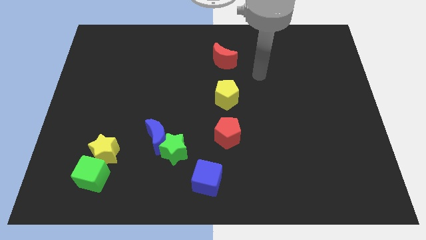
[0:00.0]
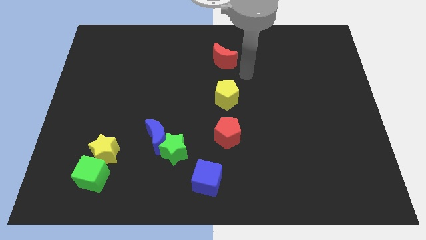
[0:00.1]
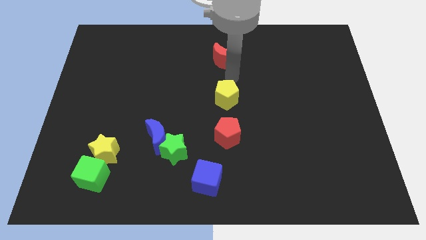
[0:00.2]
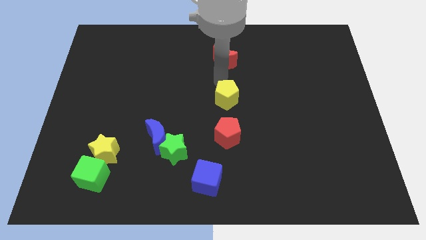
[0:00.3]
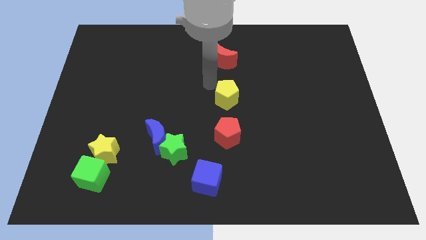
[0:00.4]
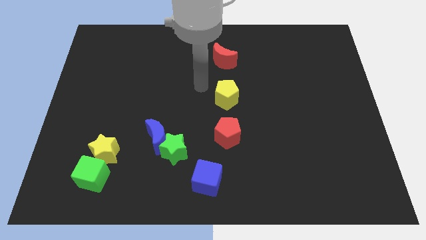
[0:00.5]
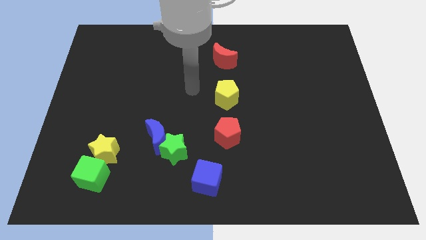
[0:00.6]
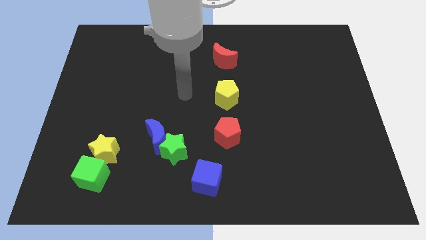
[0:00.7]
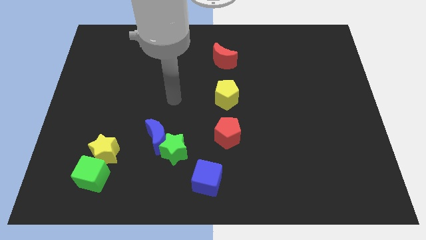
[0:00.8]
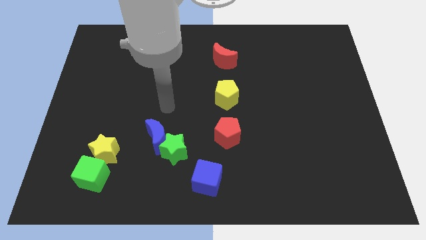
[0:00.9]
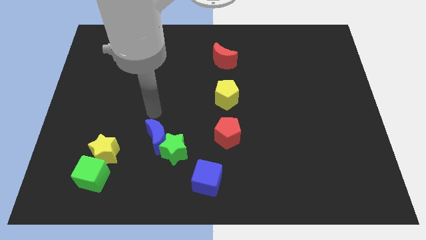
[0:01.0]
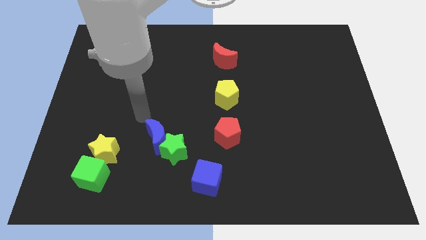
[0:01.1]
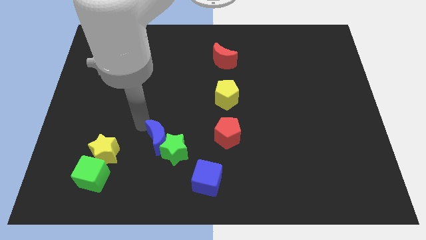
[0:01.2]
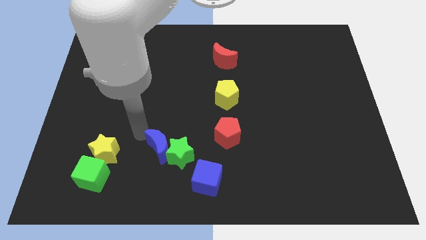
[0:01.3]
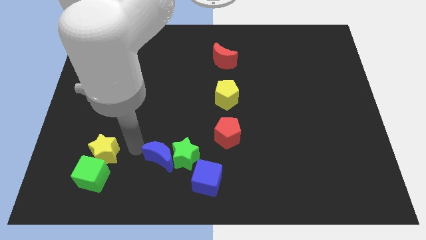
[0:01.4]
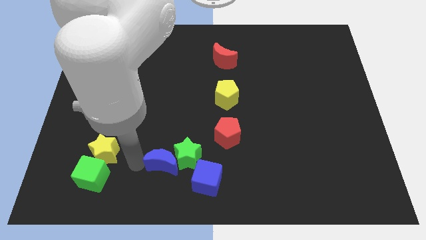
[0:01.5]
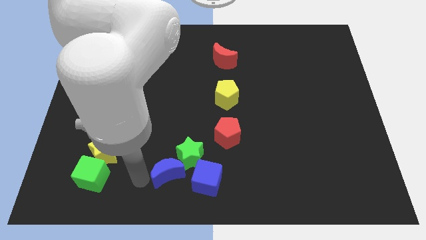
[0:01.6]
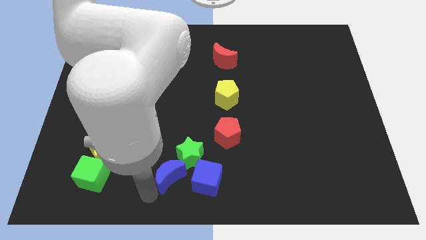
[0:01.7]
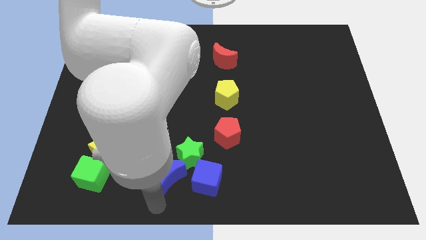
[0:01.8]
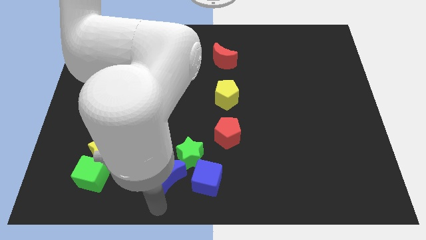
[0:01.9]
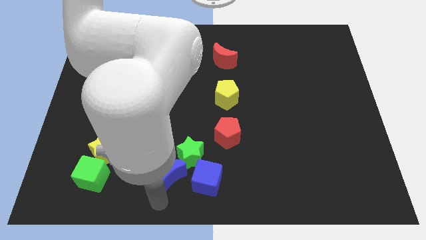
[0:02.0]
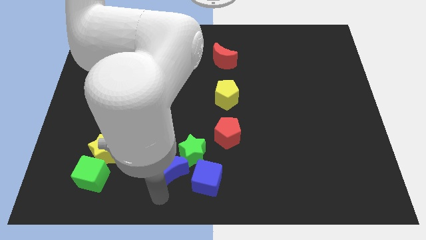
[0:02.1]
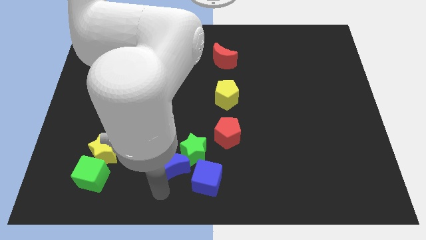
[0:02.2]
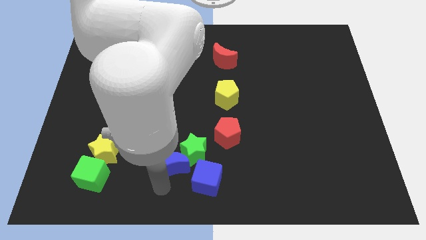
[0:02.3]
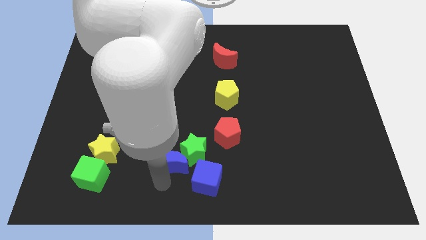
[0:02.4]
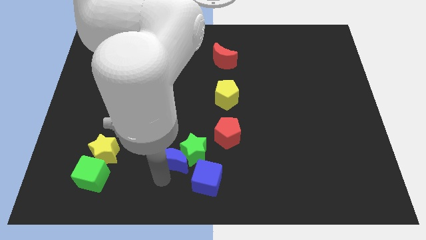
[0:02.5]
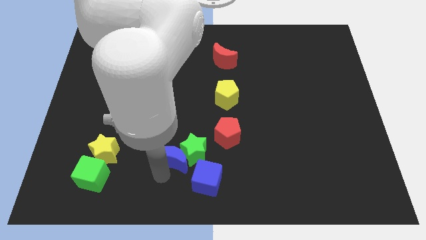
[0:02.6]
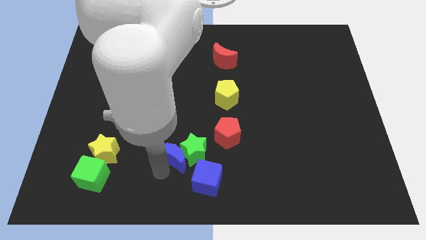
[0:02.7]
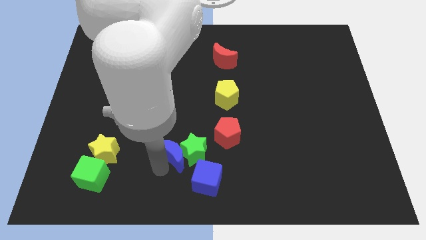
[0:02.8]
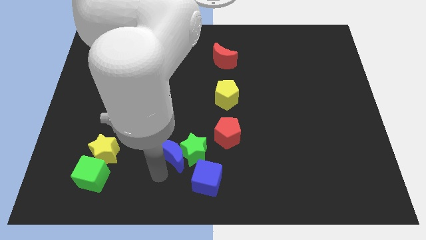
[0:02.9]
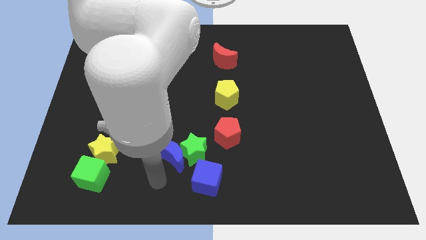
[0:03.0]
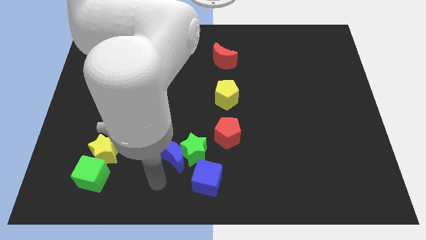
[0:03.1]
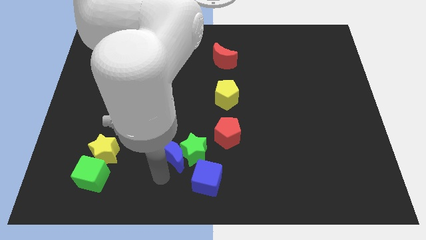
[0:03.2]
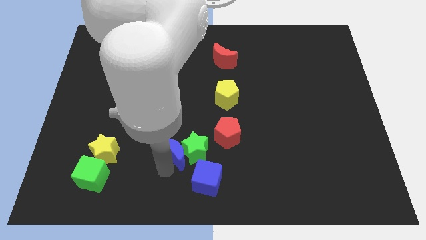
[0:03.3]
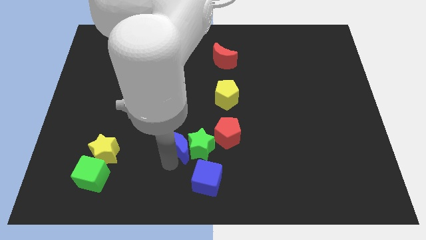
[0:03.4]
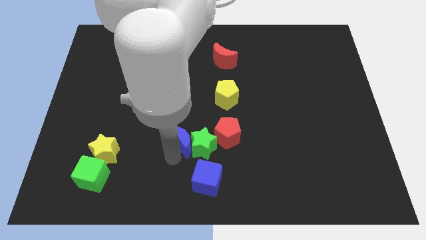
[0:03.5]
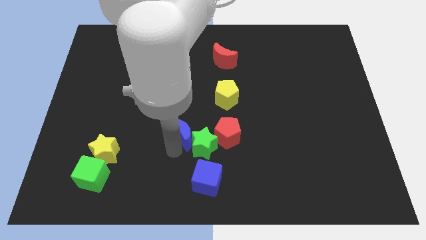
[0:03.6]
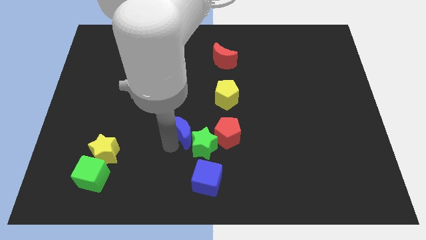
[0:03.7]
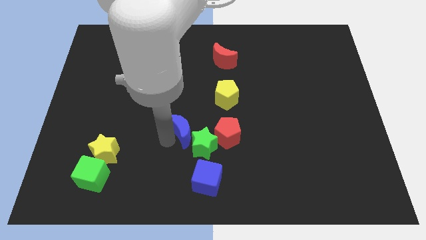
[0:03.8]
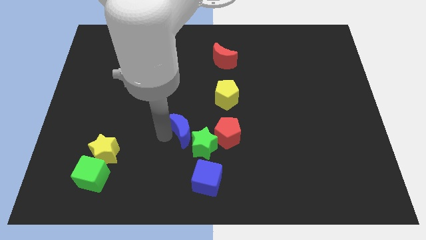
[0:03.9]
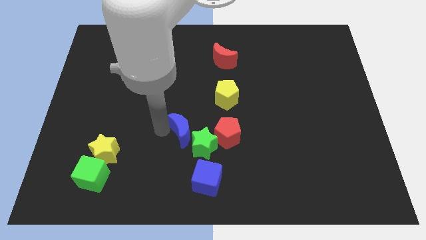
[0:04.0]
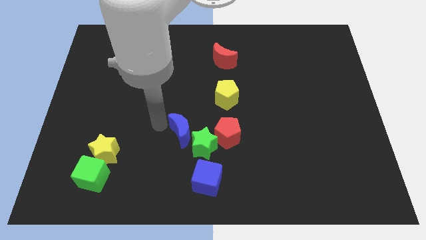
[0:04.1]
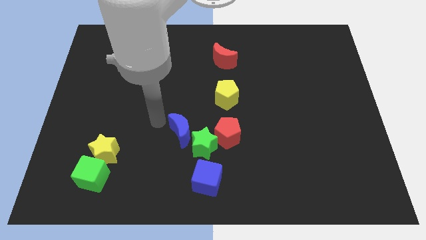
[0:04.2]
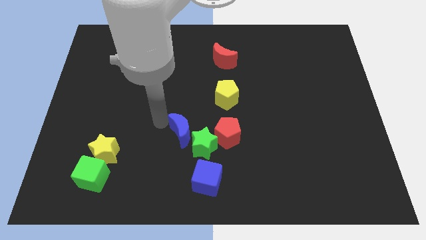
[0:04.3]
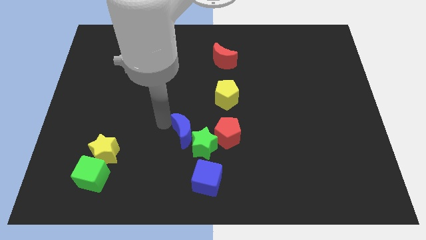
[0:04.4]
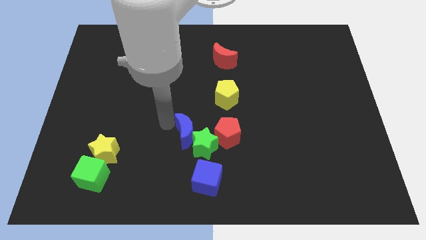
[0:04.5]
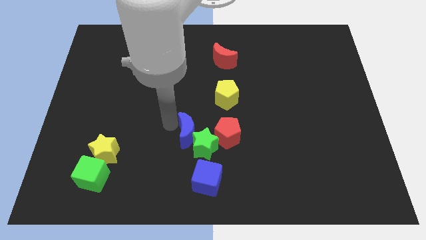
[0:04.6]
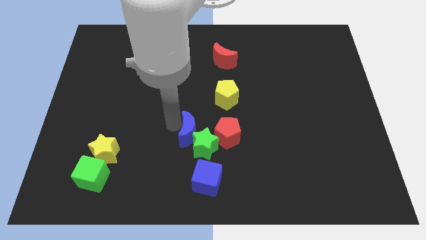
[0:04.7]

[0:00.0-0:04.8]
slide the blue moon a little bit to the right

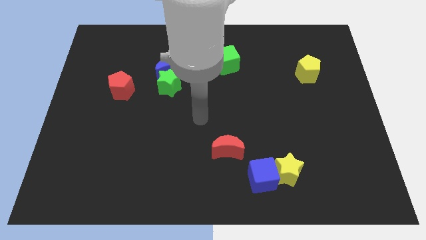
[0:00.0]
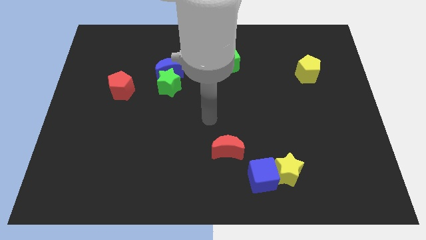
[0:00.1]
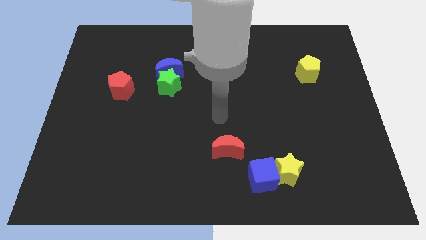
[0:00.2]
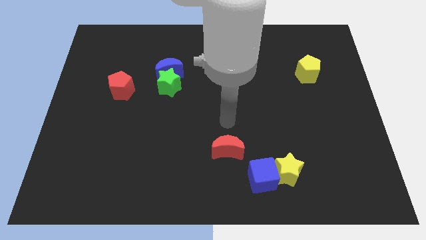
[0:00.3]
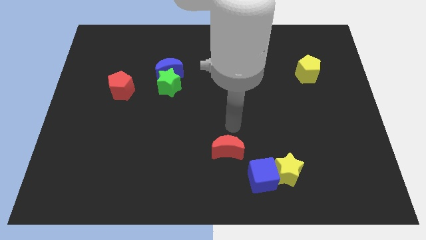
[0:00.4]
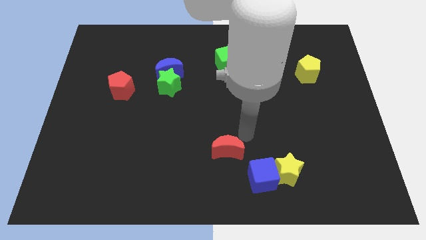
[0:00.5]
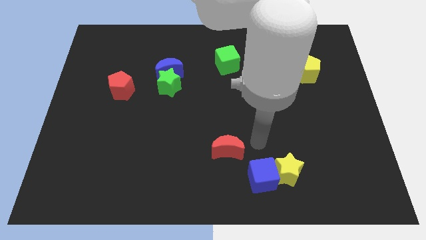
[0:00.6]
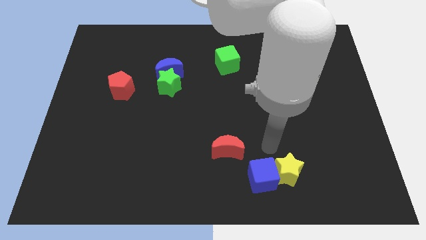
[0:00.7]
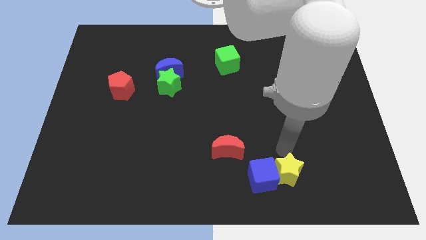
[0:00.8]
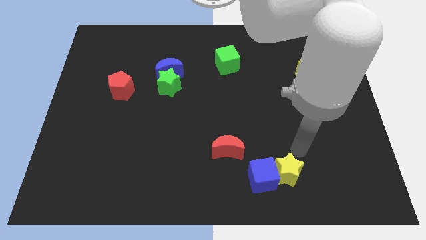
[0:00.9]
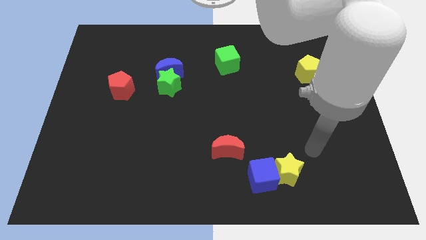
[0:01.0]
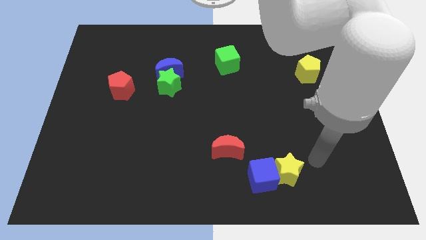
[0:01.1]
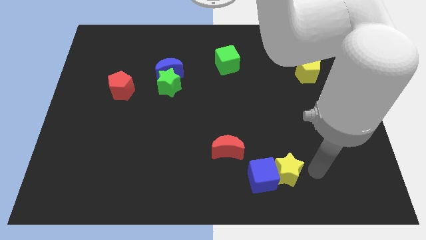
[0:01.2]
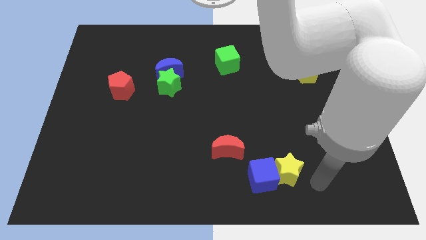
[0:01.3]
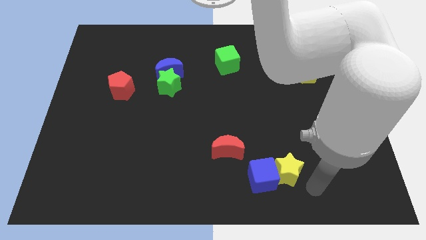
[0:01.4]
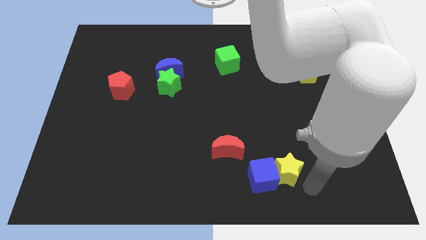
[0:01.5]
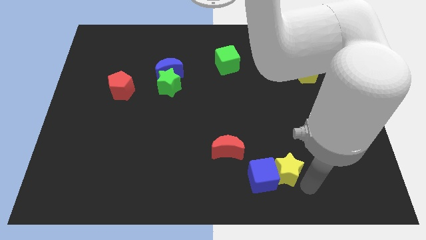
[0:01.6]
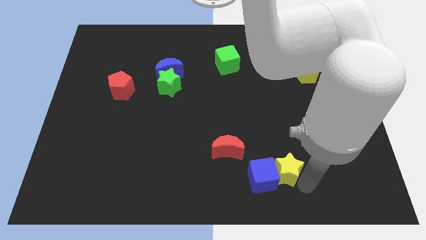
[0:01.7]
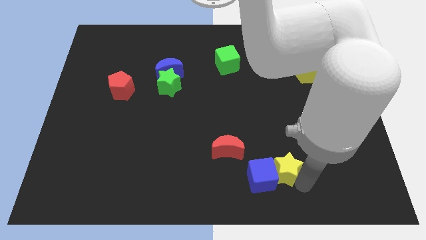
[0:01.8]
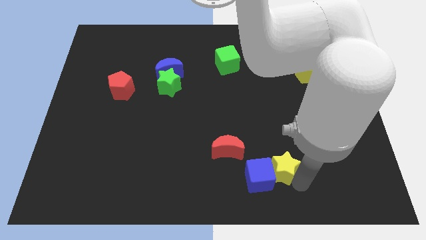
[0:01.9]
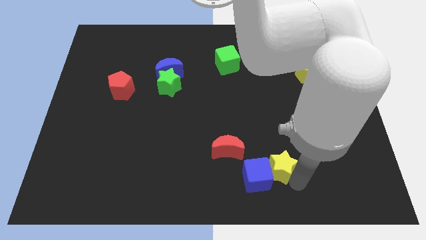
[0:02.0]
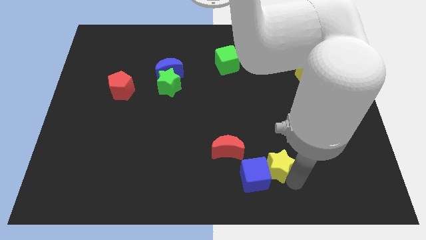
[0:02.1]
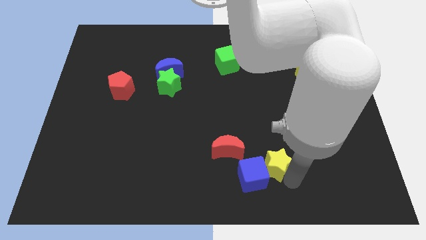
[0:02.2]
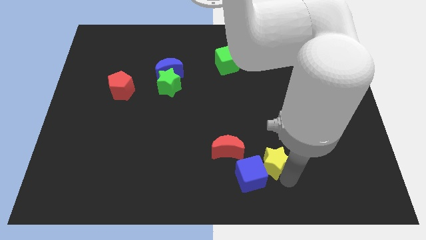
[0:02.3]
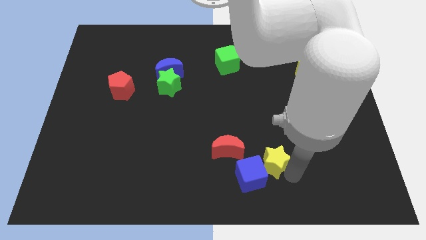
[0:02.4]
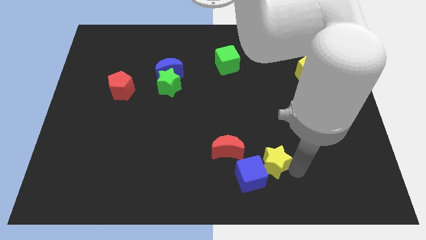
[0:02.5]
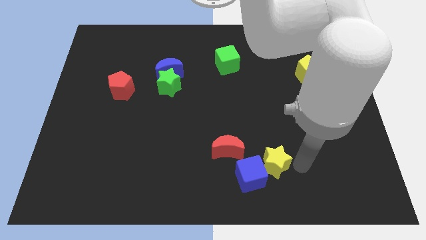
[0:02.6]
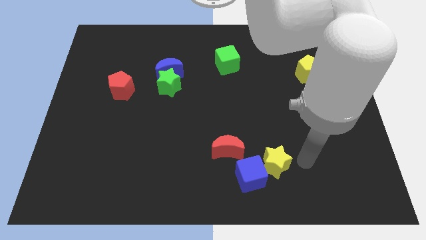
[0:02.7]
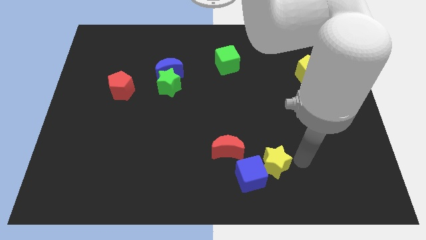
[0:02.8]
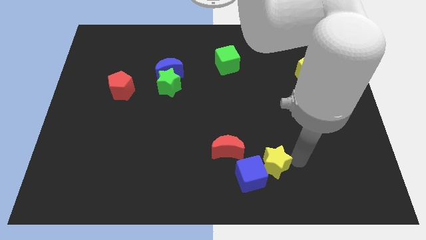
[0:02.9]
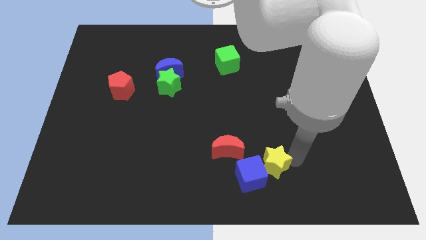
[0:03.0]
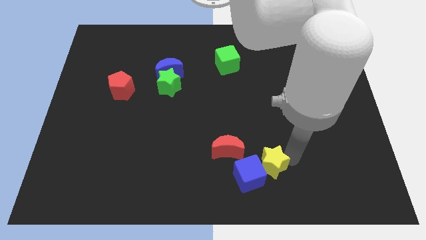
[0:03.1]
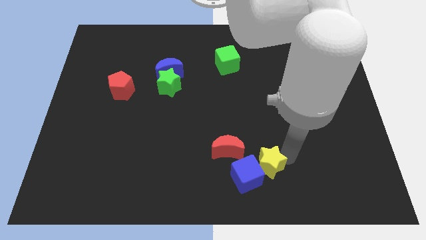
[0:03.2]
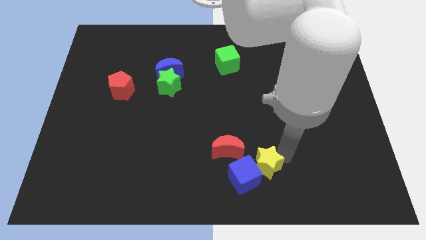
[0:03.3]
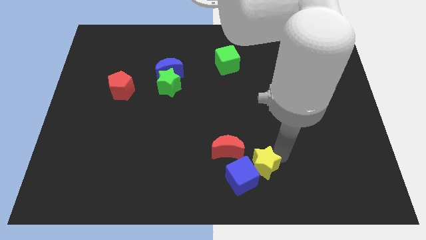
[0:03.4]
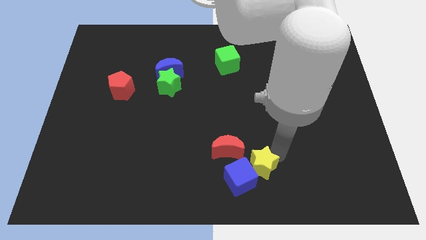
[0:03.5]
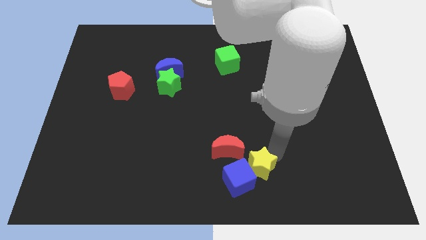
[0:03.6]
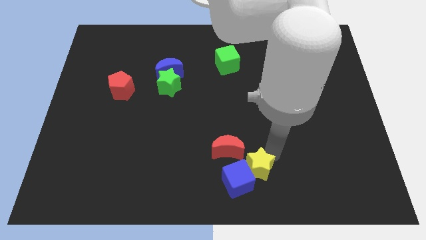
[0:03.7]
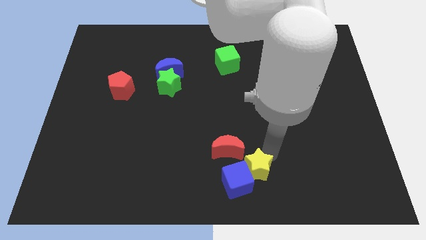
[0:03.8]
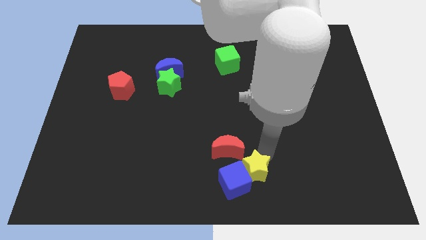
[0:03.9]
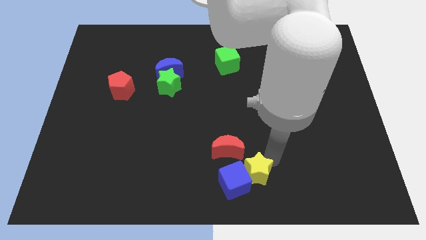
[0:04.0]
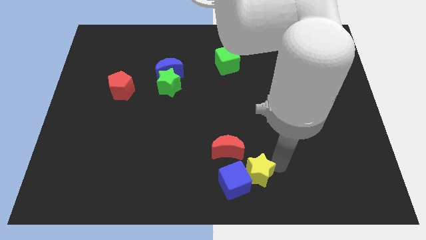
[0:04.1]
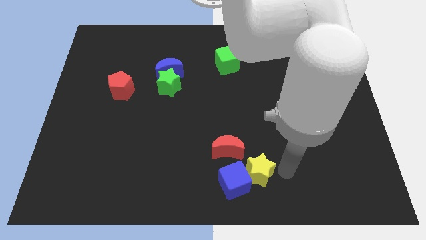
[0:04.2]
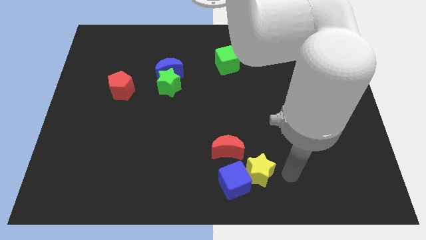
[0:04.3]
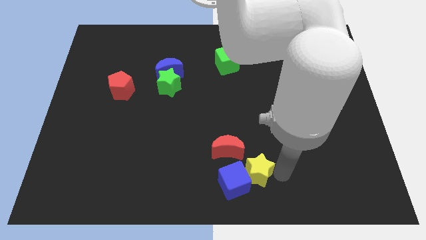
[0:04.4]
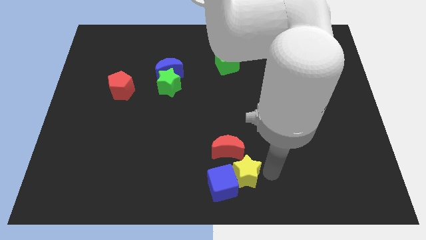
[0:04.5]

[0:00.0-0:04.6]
move the yellow star left a little bit
